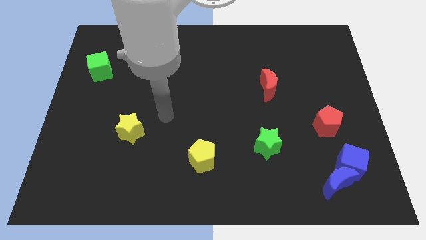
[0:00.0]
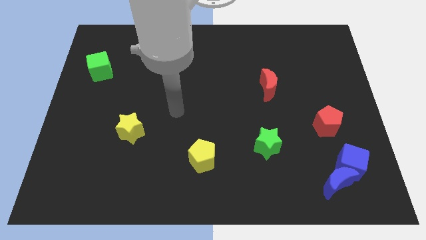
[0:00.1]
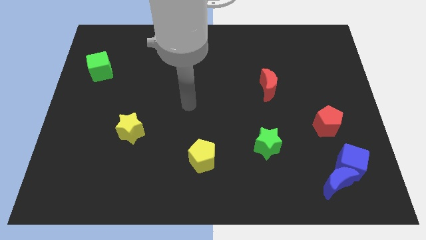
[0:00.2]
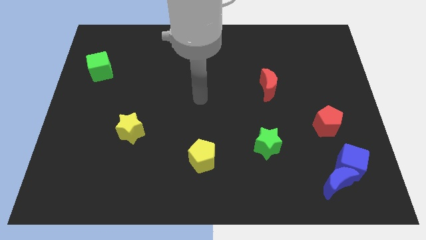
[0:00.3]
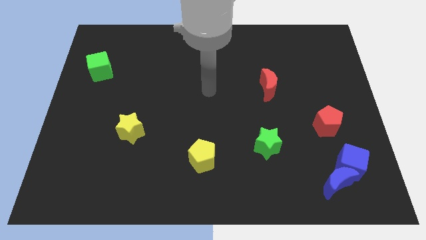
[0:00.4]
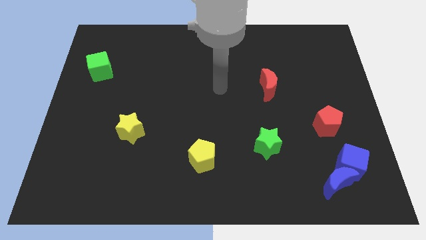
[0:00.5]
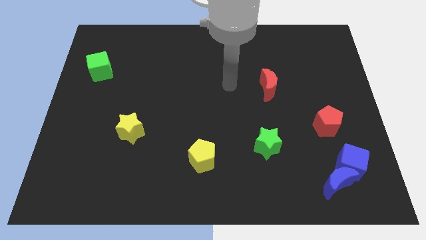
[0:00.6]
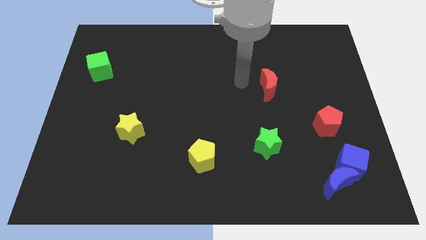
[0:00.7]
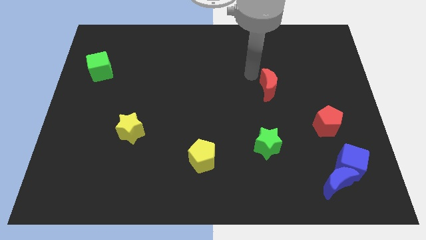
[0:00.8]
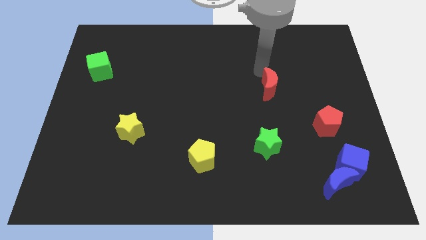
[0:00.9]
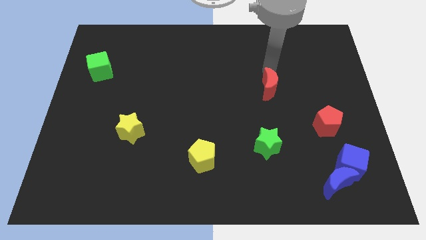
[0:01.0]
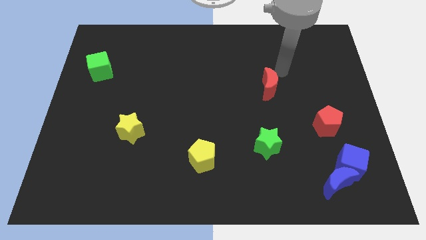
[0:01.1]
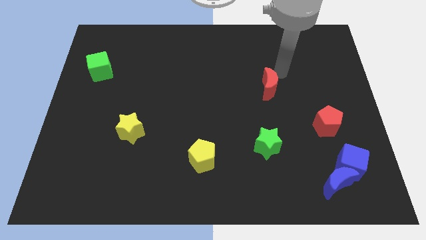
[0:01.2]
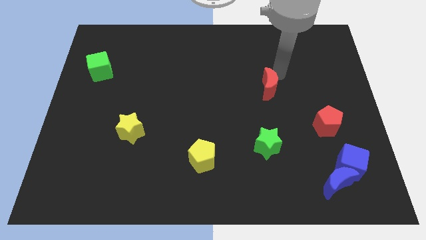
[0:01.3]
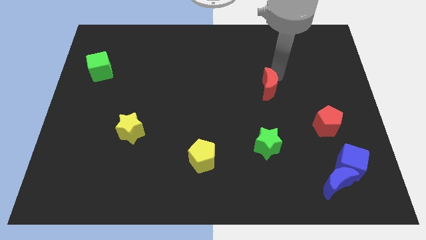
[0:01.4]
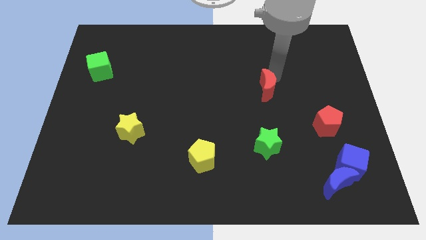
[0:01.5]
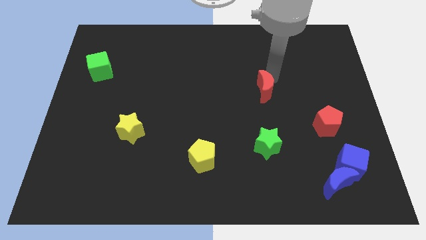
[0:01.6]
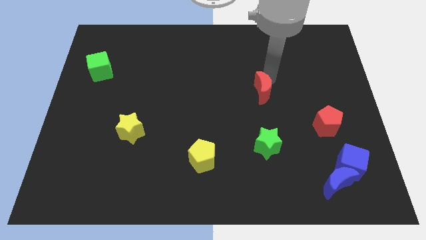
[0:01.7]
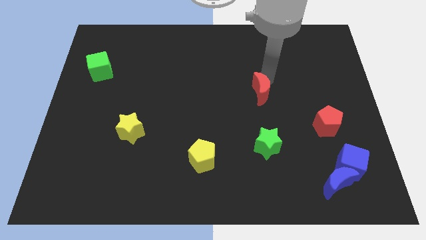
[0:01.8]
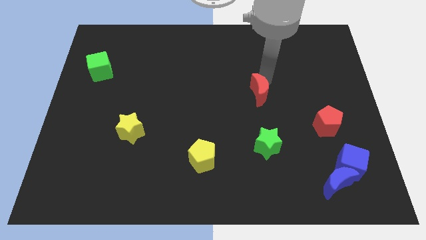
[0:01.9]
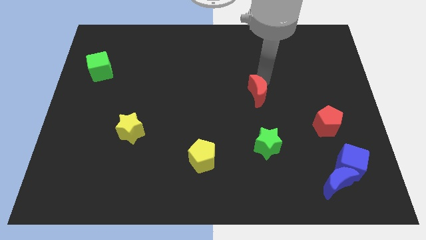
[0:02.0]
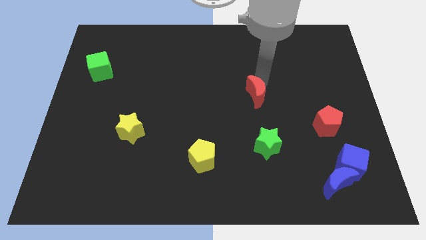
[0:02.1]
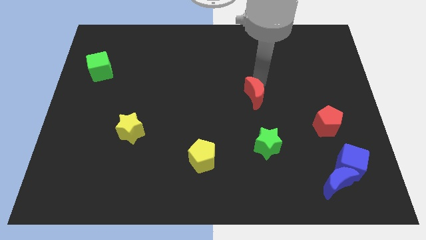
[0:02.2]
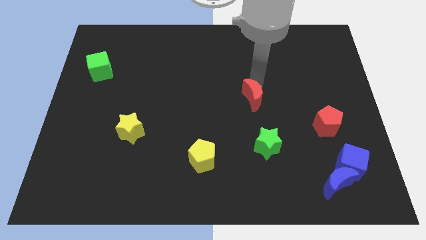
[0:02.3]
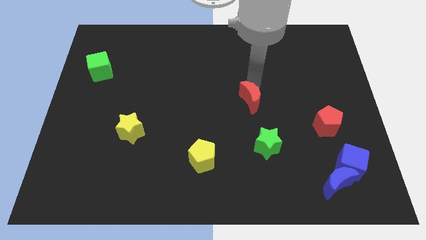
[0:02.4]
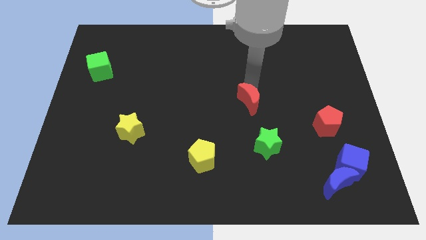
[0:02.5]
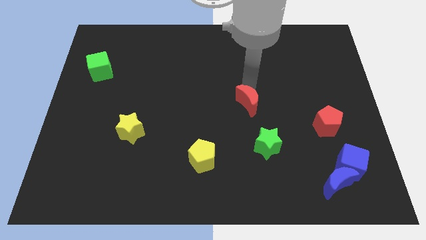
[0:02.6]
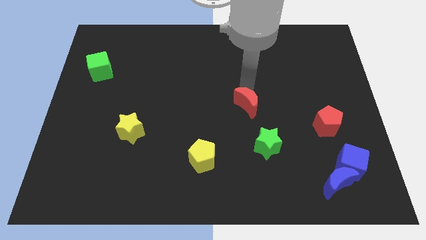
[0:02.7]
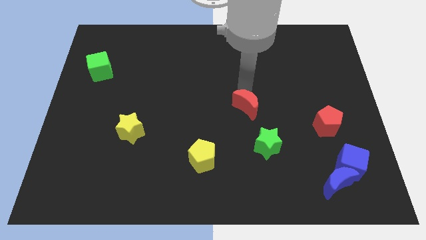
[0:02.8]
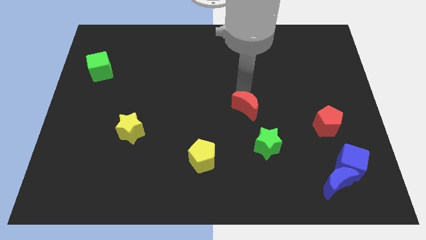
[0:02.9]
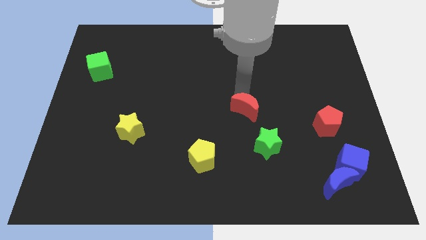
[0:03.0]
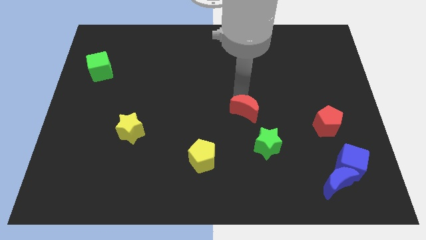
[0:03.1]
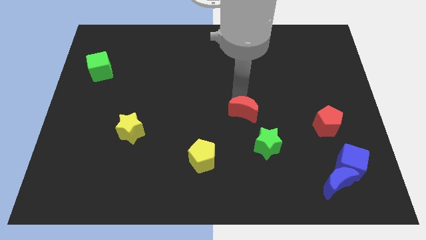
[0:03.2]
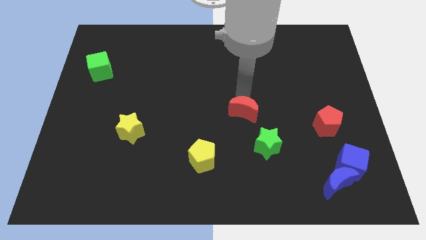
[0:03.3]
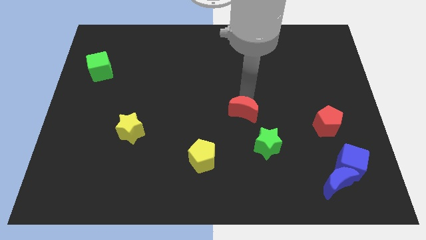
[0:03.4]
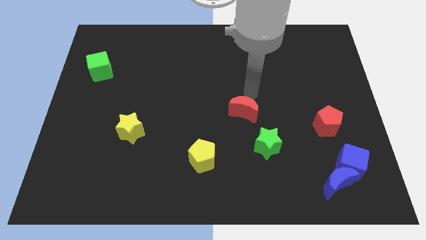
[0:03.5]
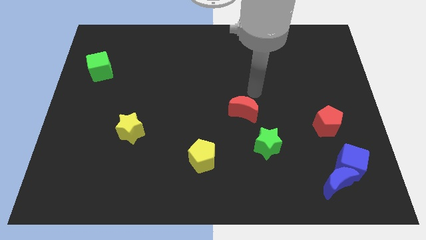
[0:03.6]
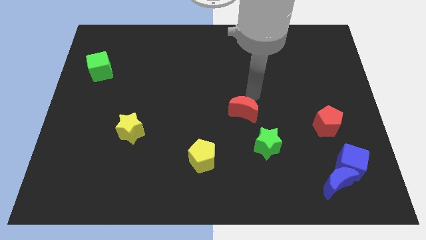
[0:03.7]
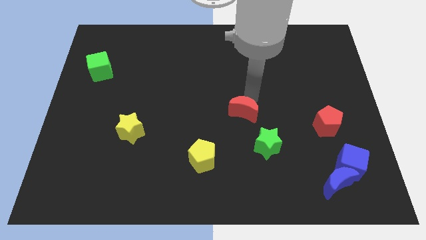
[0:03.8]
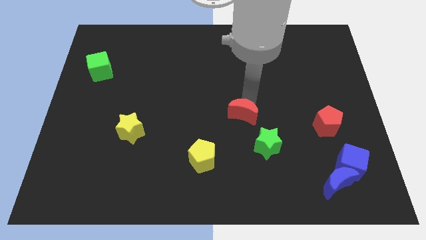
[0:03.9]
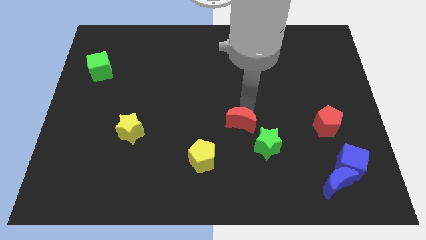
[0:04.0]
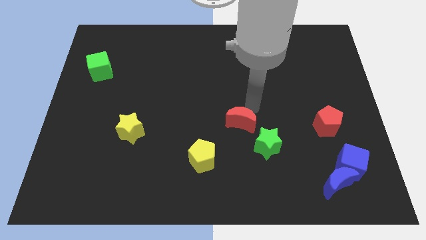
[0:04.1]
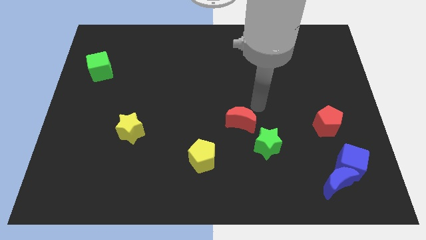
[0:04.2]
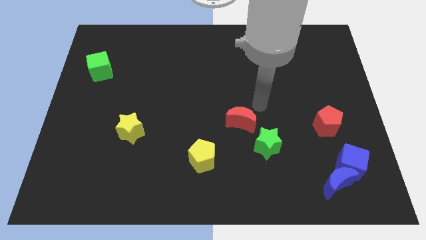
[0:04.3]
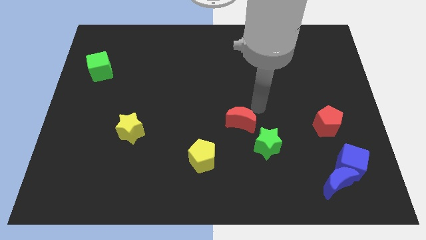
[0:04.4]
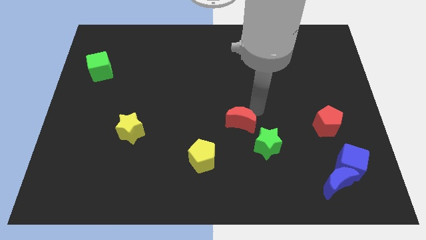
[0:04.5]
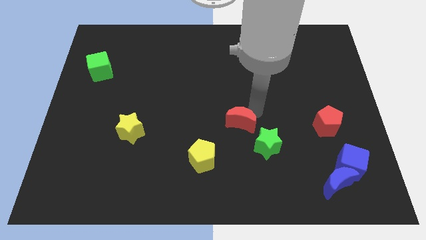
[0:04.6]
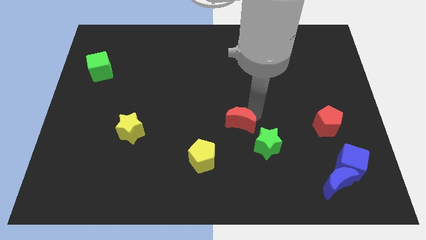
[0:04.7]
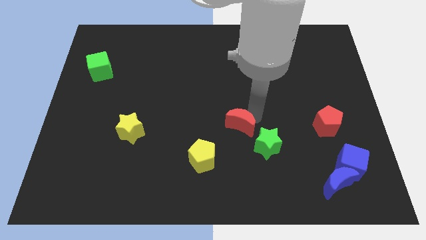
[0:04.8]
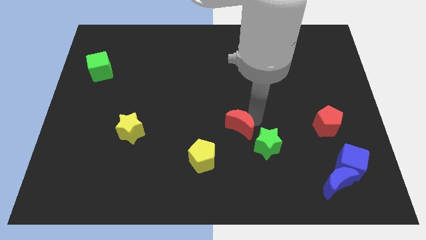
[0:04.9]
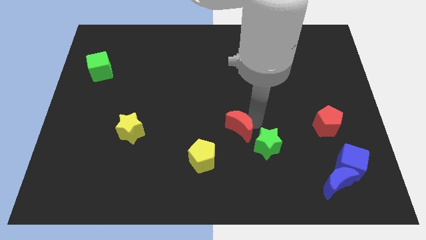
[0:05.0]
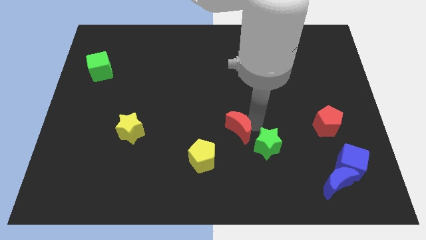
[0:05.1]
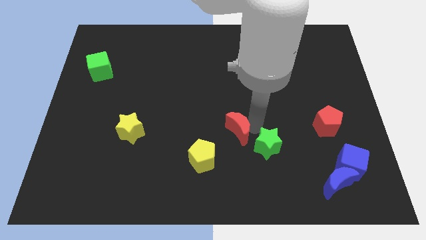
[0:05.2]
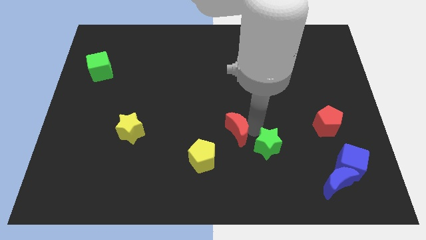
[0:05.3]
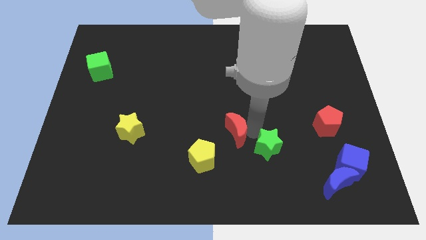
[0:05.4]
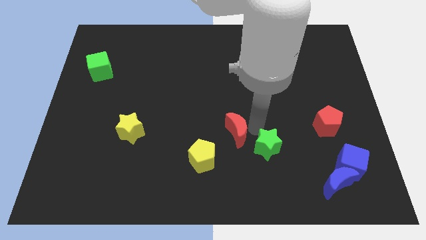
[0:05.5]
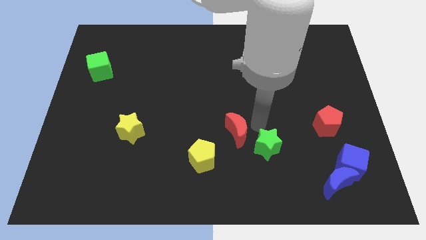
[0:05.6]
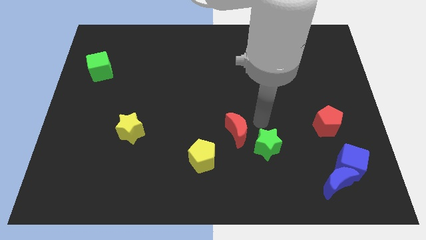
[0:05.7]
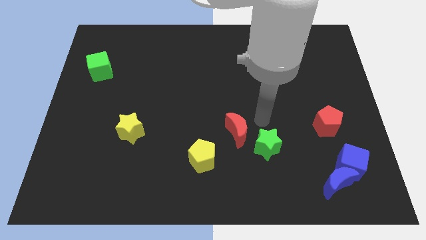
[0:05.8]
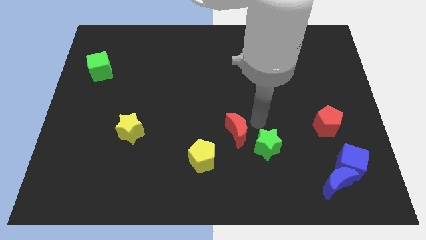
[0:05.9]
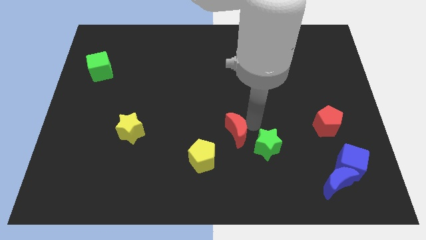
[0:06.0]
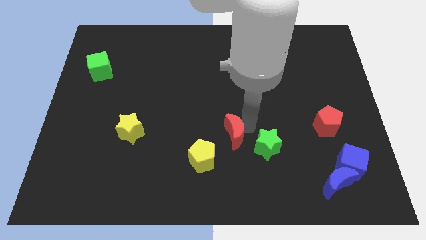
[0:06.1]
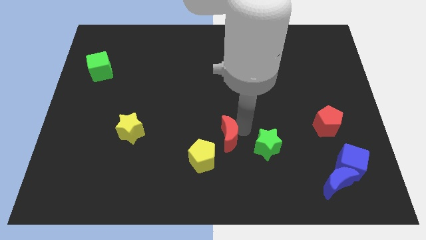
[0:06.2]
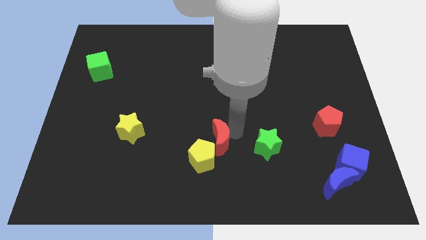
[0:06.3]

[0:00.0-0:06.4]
put the red moon next to the yellow pentagon
